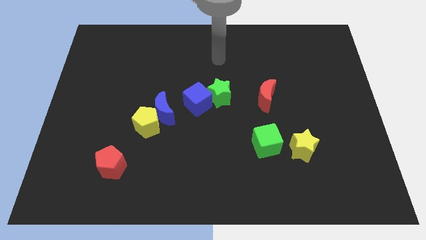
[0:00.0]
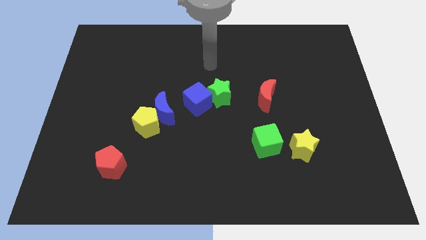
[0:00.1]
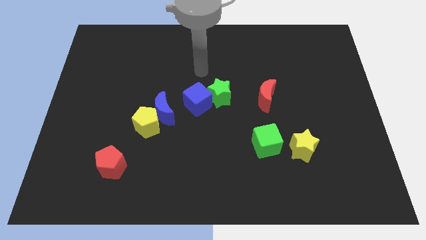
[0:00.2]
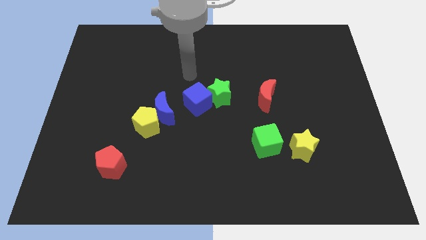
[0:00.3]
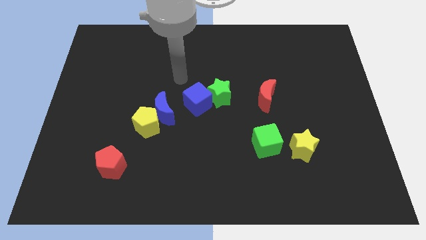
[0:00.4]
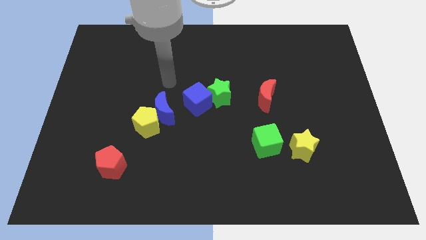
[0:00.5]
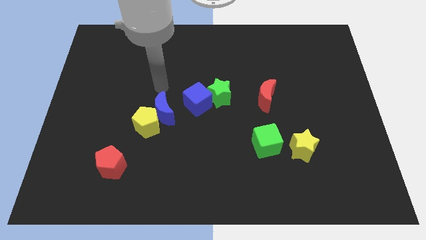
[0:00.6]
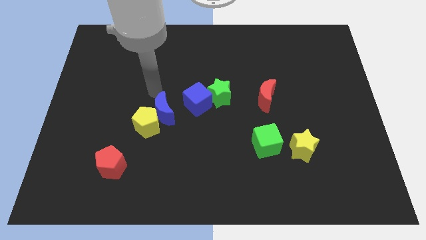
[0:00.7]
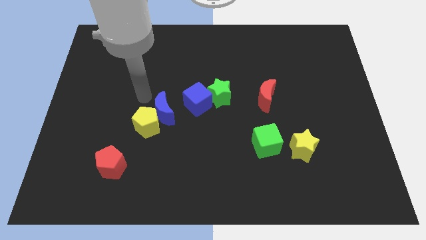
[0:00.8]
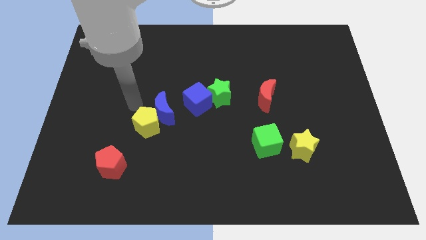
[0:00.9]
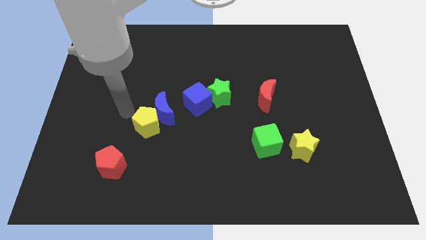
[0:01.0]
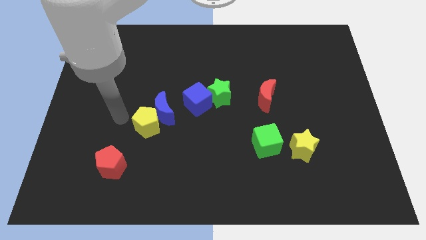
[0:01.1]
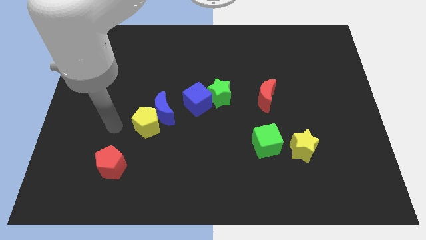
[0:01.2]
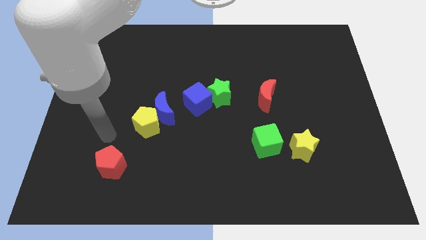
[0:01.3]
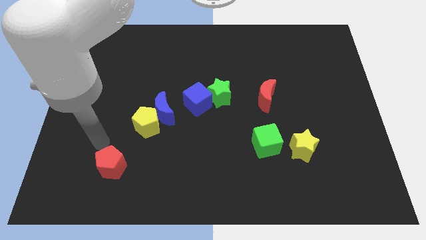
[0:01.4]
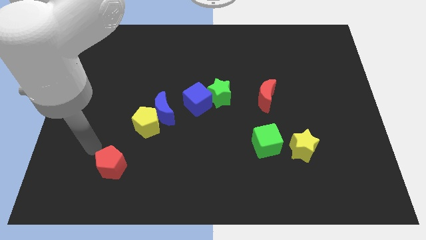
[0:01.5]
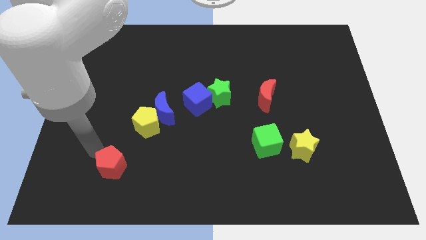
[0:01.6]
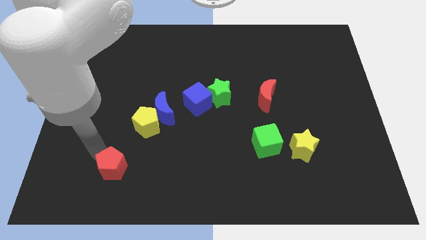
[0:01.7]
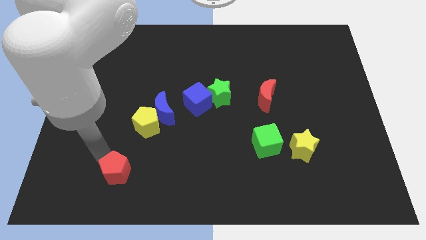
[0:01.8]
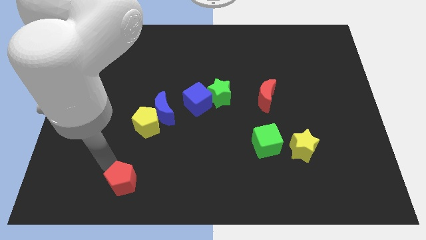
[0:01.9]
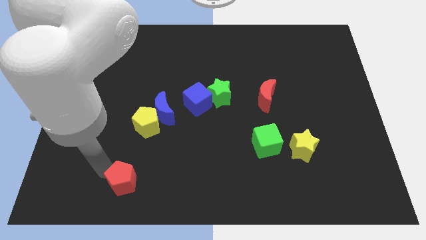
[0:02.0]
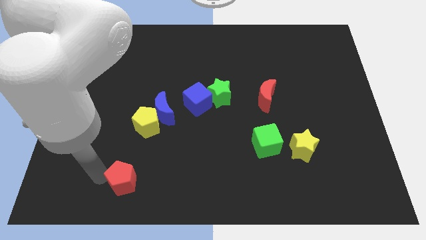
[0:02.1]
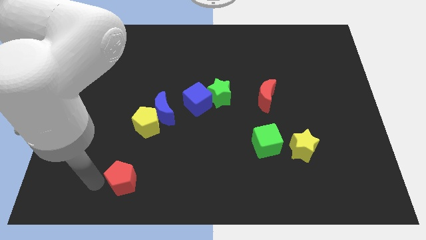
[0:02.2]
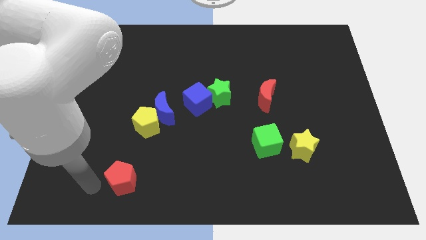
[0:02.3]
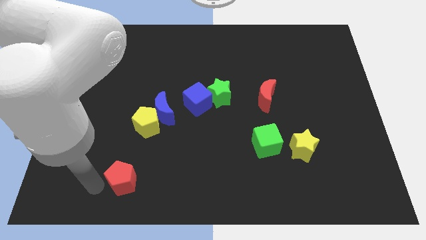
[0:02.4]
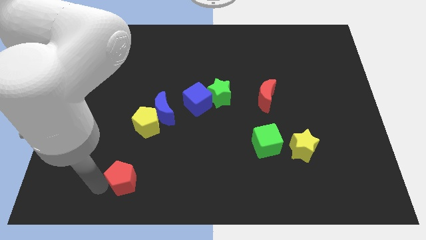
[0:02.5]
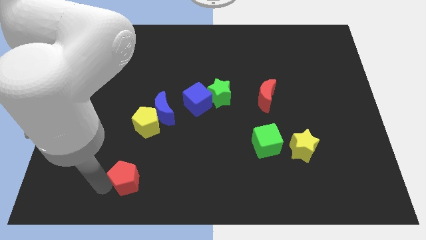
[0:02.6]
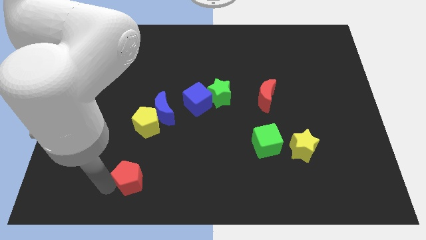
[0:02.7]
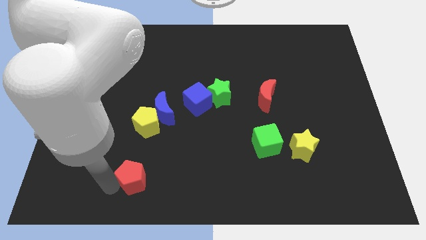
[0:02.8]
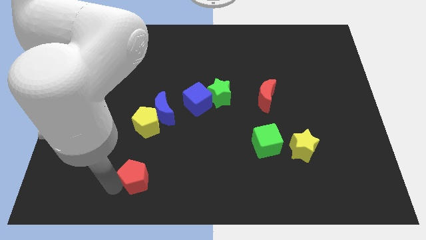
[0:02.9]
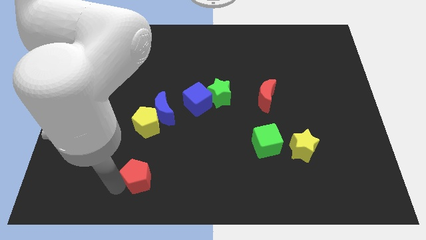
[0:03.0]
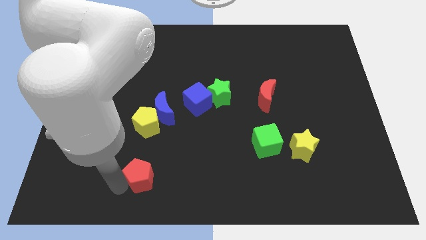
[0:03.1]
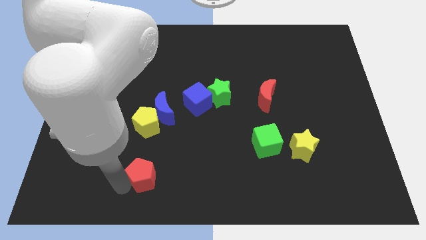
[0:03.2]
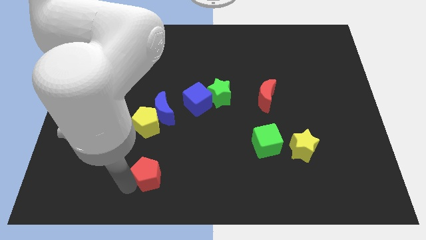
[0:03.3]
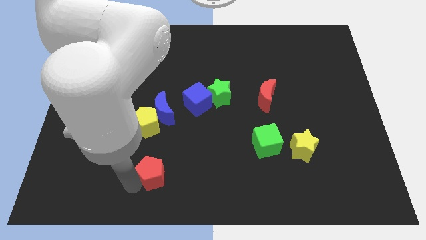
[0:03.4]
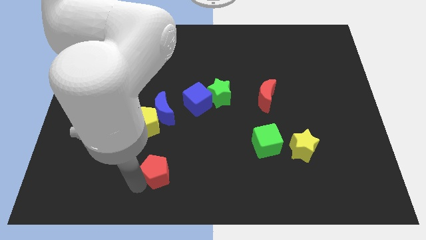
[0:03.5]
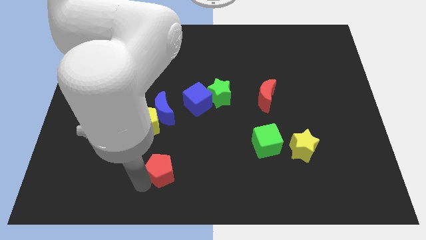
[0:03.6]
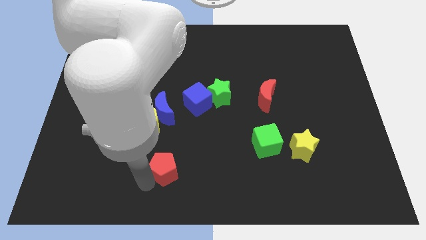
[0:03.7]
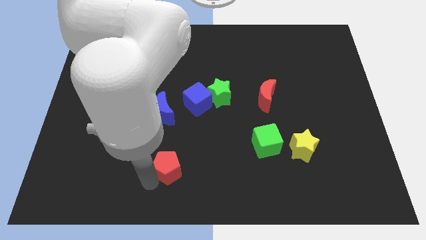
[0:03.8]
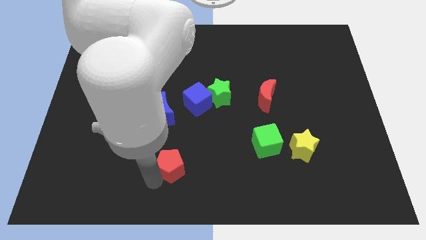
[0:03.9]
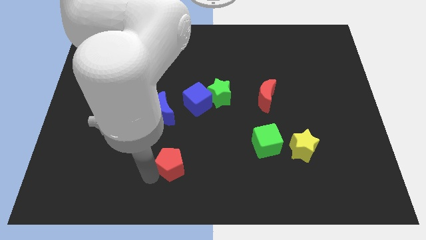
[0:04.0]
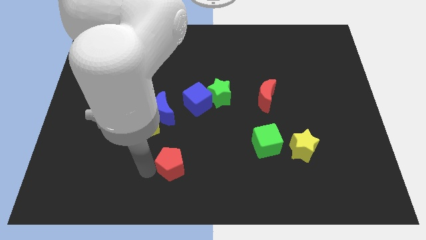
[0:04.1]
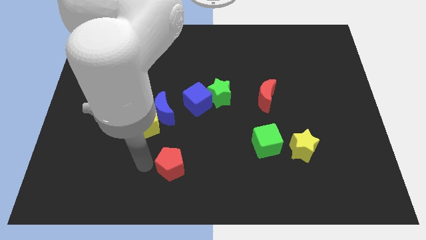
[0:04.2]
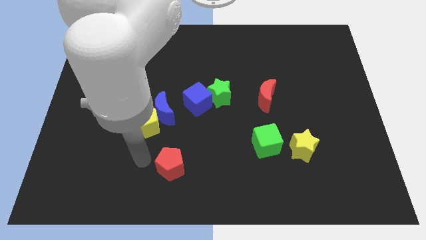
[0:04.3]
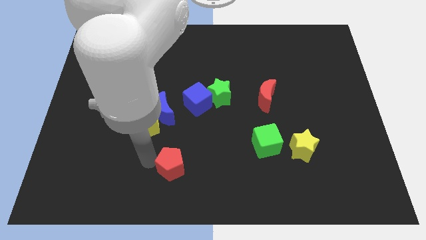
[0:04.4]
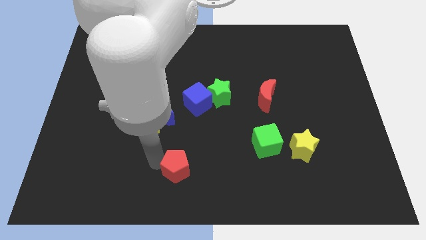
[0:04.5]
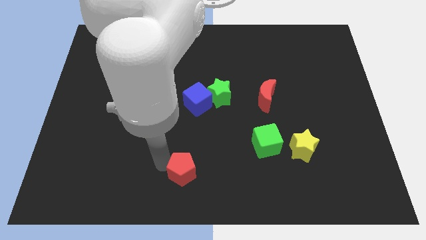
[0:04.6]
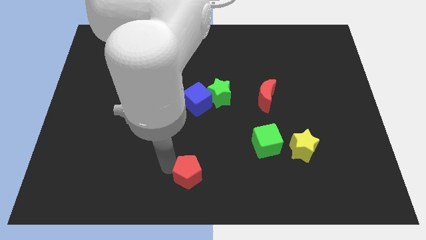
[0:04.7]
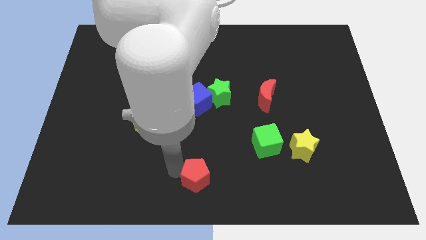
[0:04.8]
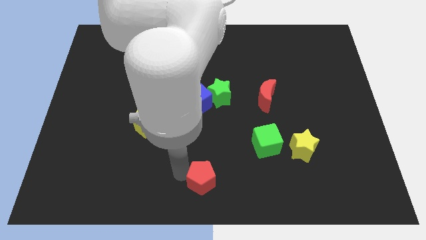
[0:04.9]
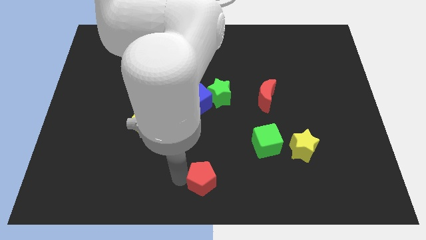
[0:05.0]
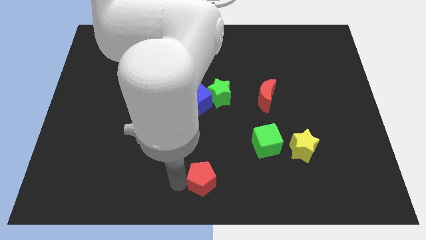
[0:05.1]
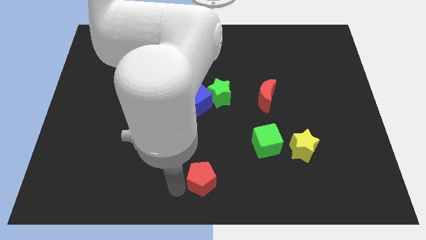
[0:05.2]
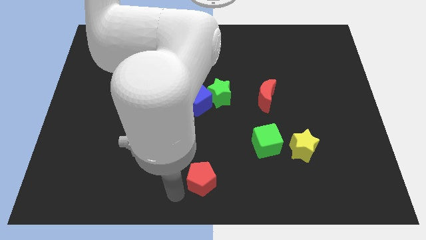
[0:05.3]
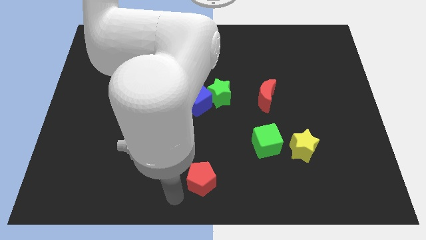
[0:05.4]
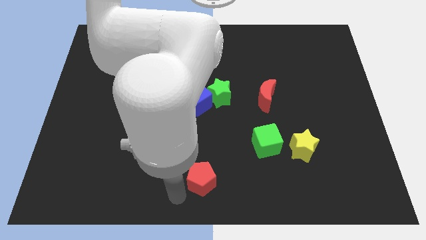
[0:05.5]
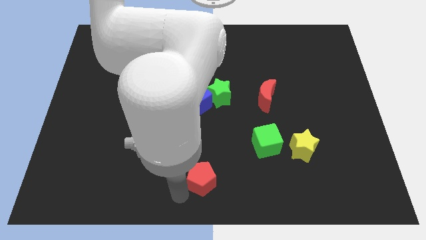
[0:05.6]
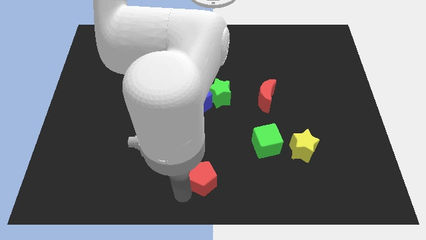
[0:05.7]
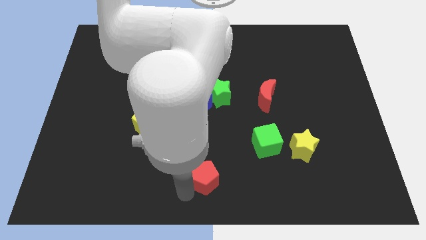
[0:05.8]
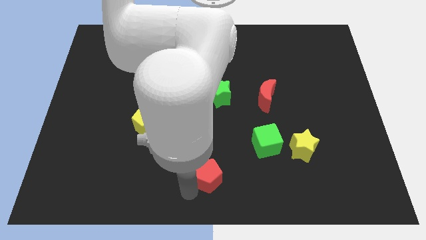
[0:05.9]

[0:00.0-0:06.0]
slide the red pentagon right

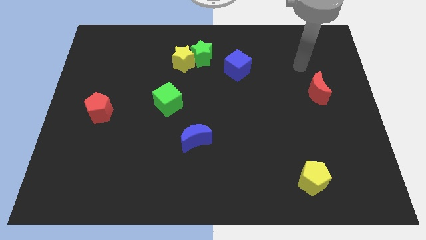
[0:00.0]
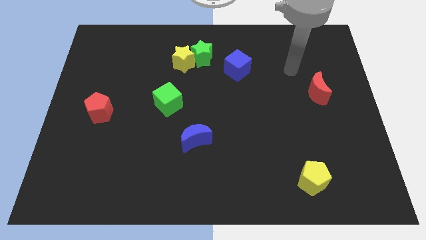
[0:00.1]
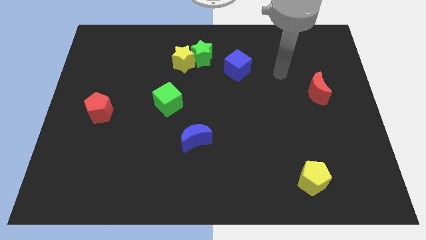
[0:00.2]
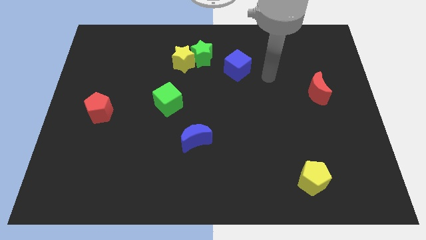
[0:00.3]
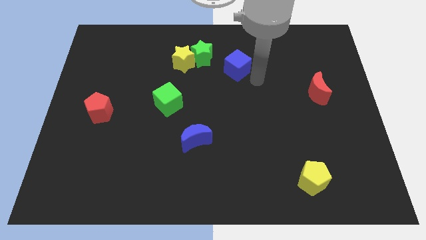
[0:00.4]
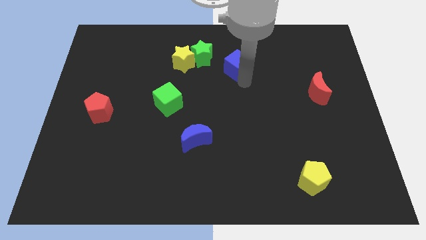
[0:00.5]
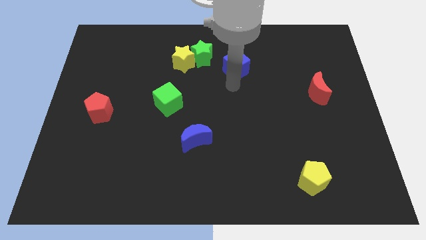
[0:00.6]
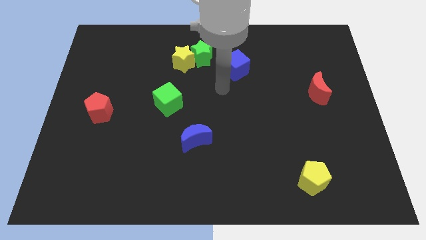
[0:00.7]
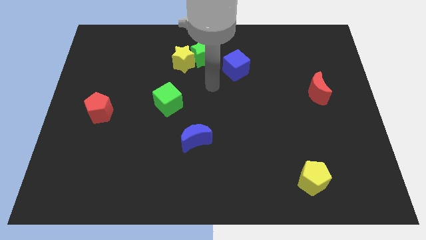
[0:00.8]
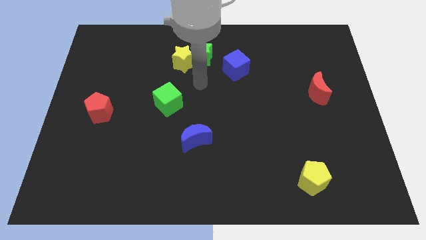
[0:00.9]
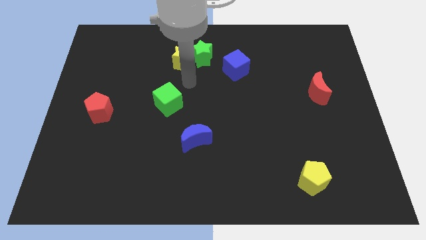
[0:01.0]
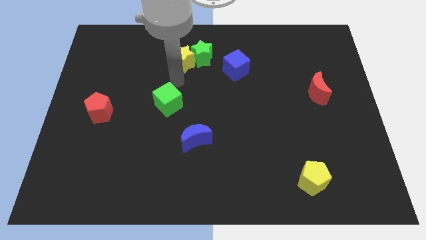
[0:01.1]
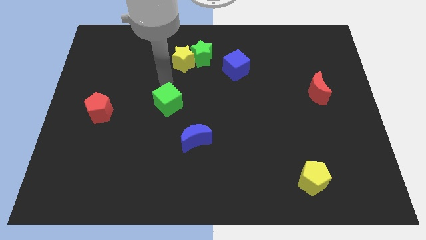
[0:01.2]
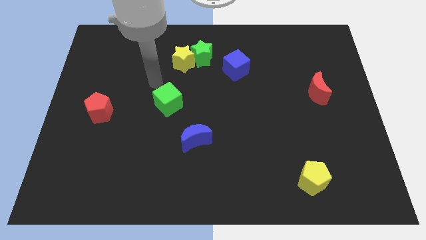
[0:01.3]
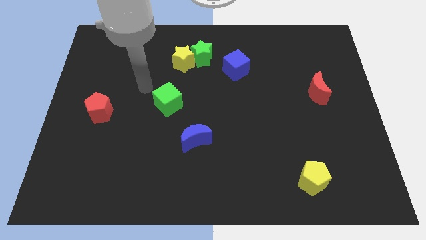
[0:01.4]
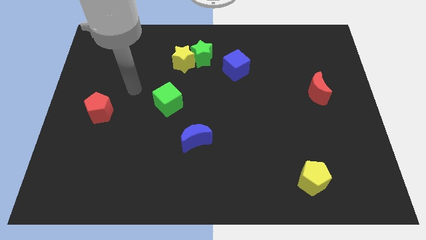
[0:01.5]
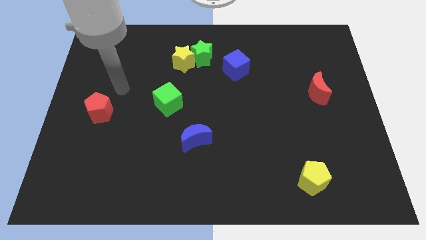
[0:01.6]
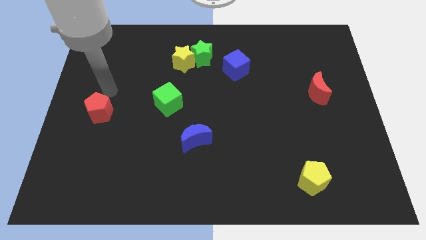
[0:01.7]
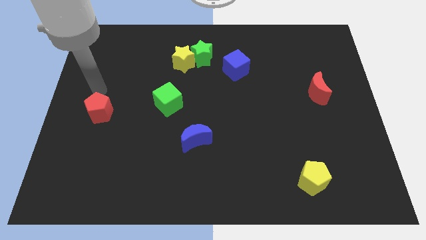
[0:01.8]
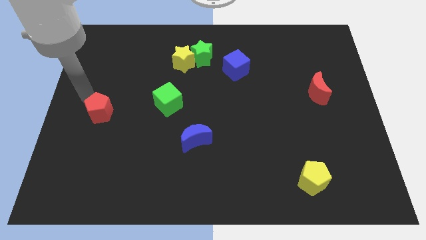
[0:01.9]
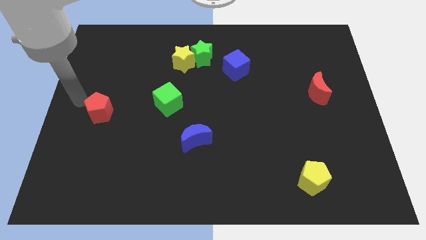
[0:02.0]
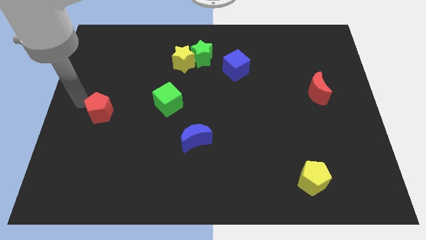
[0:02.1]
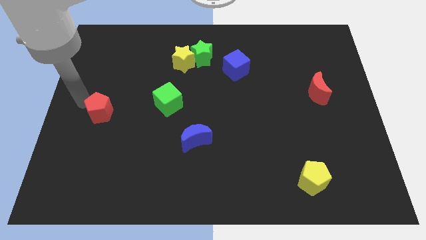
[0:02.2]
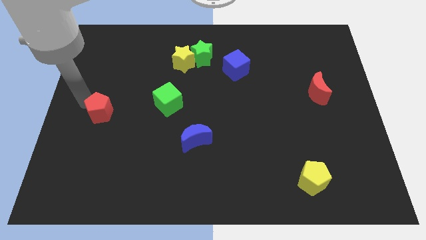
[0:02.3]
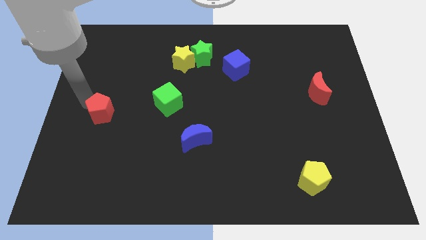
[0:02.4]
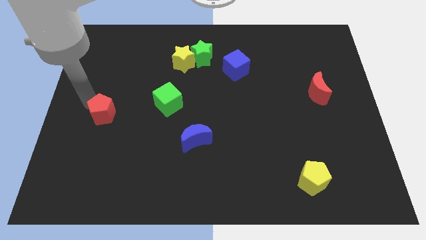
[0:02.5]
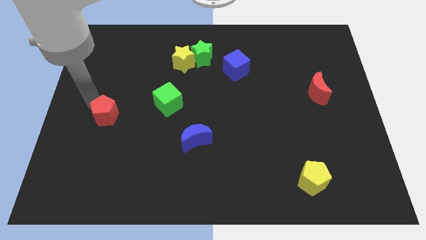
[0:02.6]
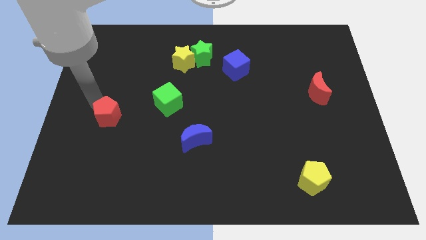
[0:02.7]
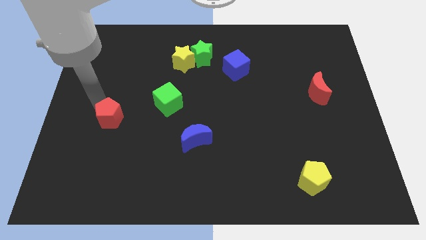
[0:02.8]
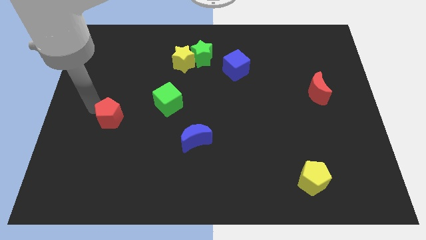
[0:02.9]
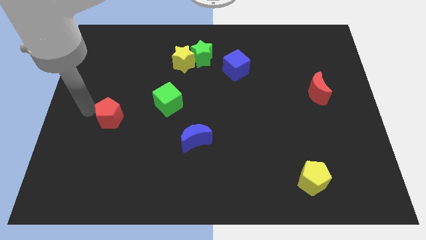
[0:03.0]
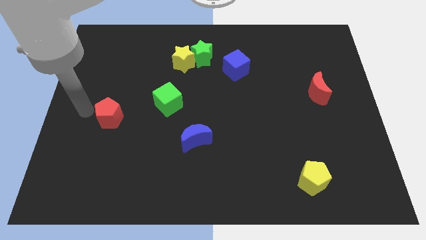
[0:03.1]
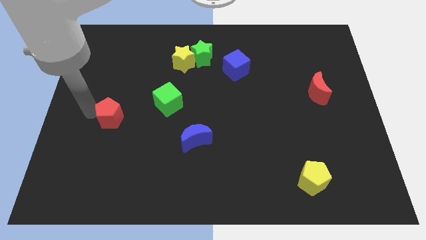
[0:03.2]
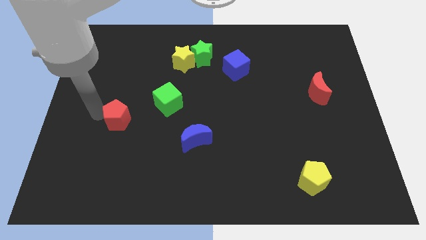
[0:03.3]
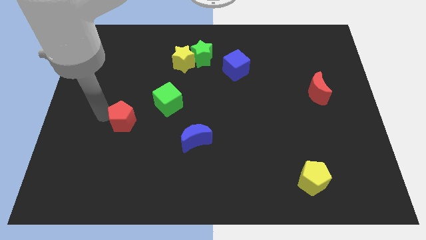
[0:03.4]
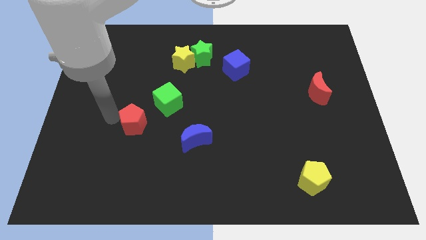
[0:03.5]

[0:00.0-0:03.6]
slightly push the red pentagon to the right
